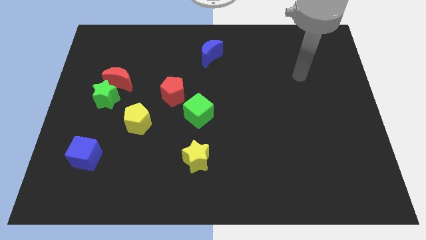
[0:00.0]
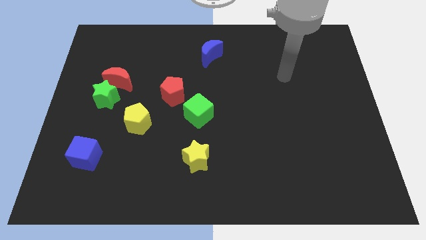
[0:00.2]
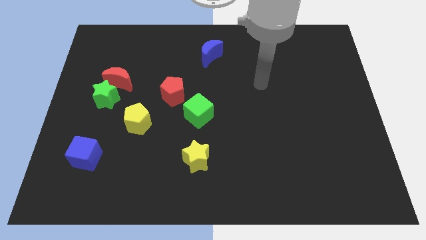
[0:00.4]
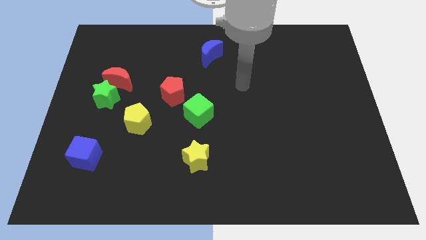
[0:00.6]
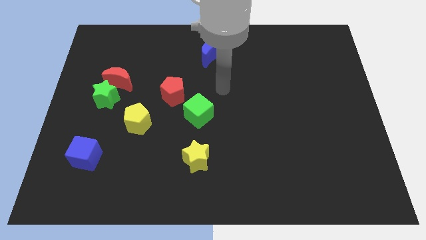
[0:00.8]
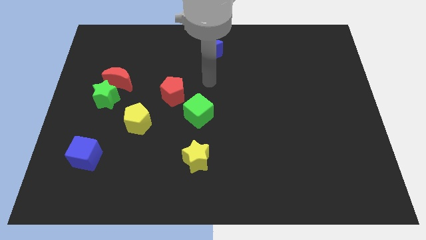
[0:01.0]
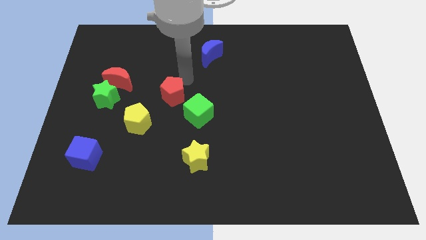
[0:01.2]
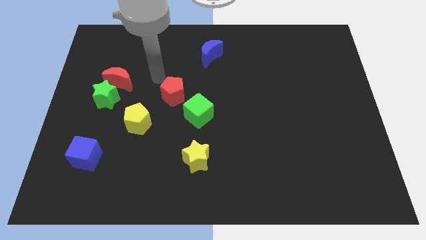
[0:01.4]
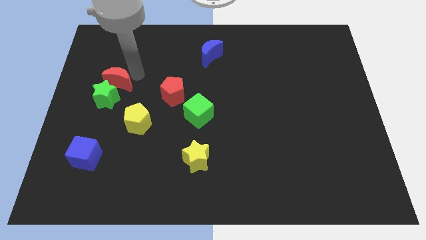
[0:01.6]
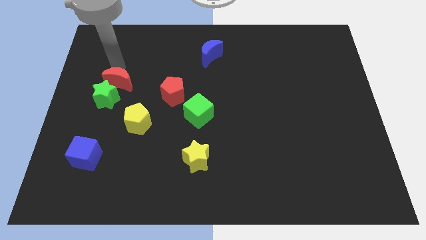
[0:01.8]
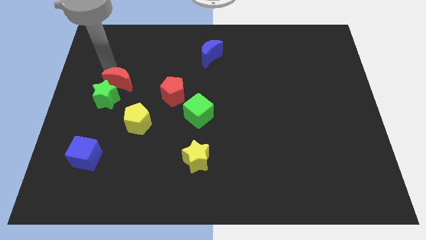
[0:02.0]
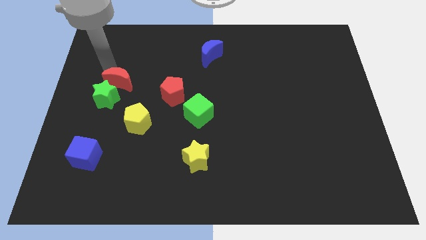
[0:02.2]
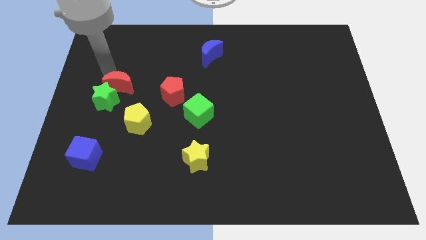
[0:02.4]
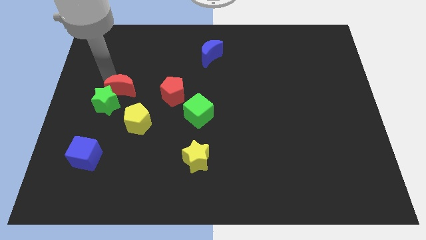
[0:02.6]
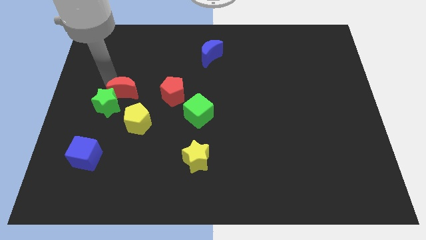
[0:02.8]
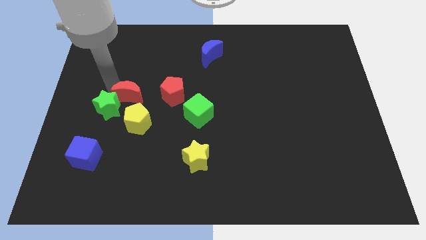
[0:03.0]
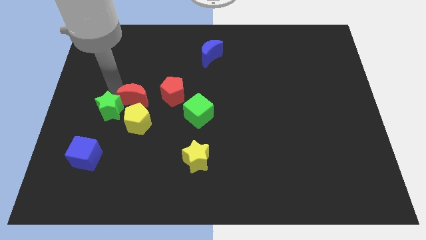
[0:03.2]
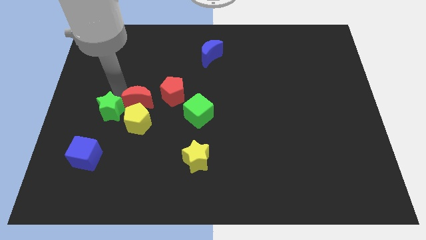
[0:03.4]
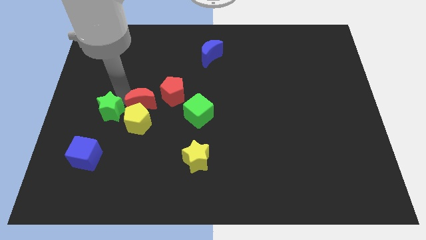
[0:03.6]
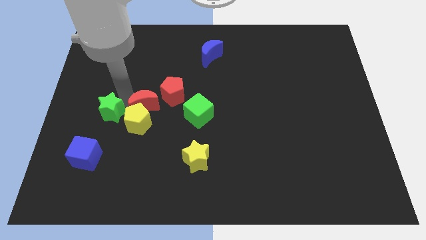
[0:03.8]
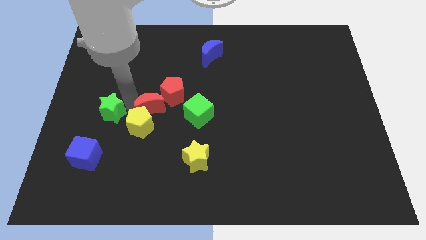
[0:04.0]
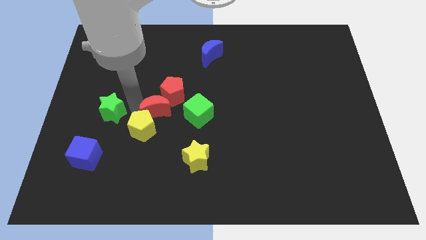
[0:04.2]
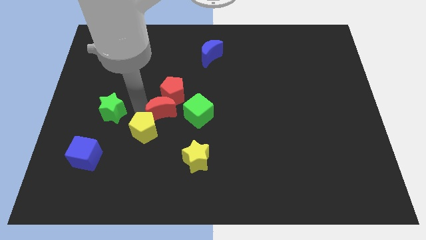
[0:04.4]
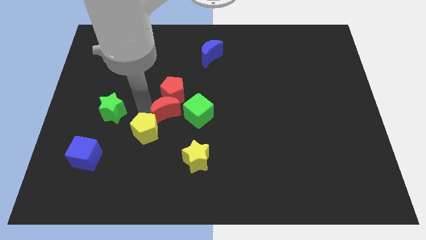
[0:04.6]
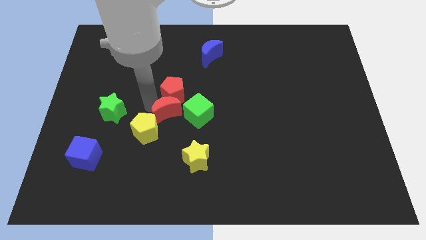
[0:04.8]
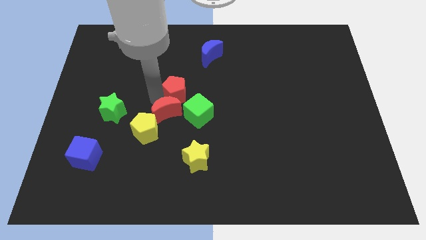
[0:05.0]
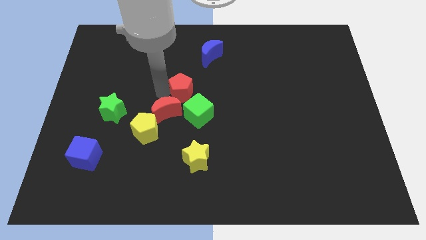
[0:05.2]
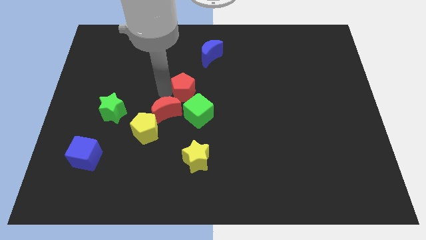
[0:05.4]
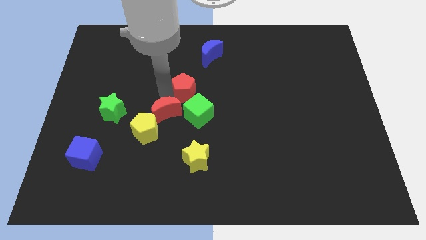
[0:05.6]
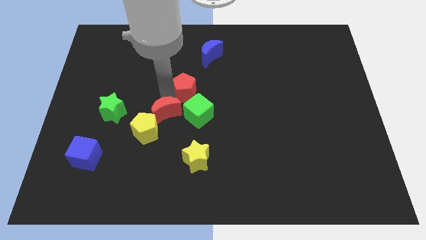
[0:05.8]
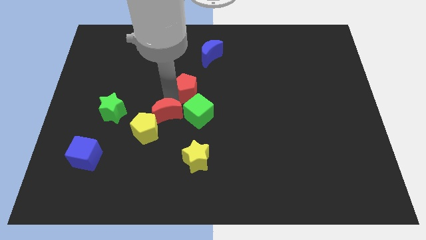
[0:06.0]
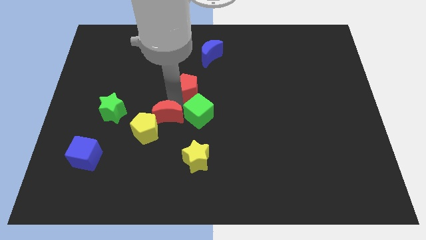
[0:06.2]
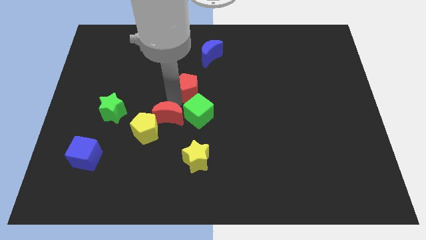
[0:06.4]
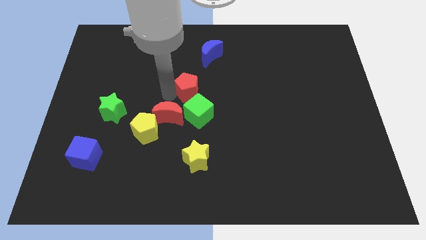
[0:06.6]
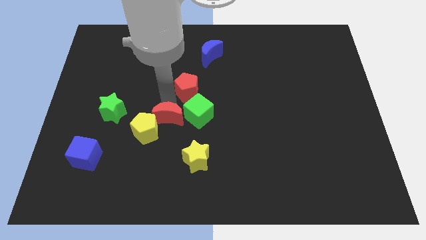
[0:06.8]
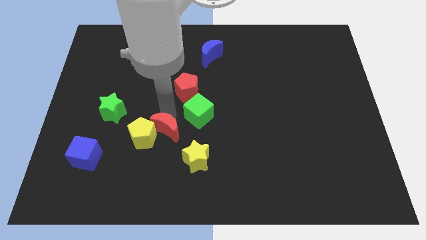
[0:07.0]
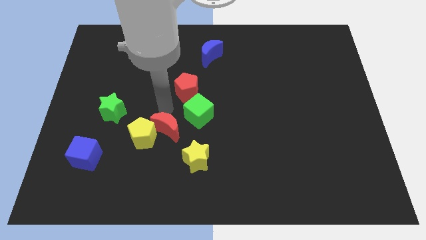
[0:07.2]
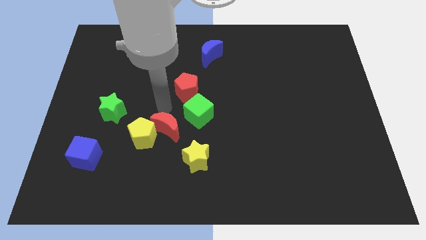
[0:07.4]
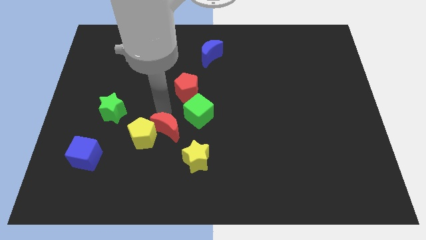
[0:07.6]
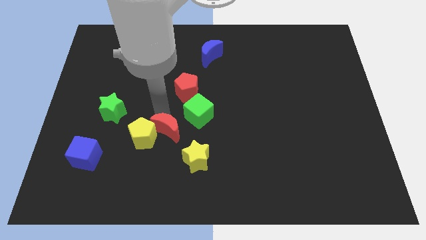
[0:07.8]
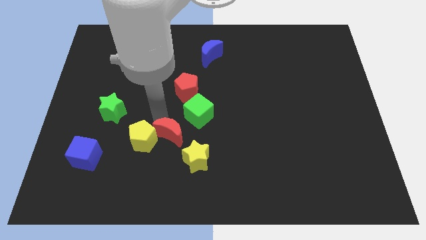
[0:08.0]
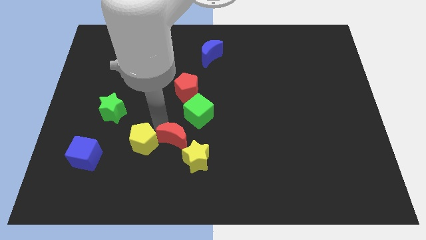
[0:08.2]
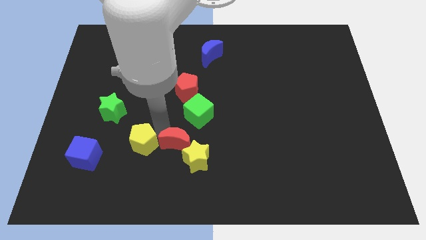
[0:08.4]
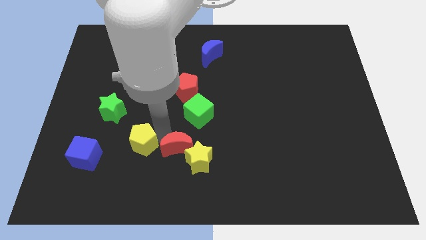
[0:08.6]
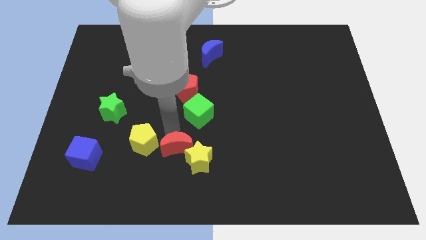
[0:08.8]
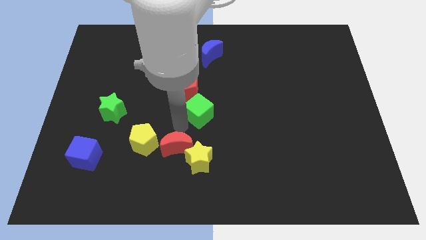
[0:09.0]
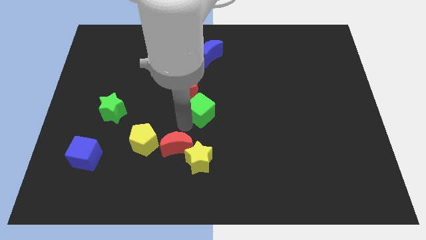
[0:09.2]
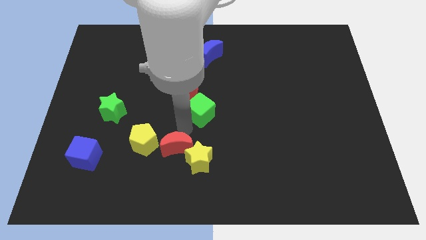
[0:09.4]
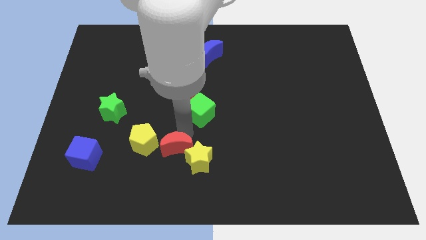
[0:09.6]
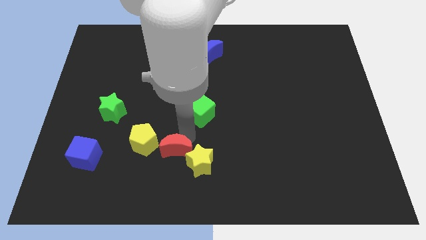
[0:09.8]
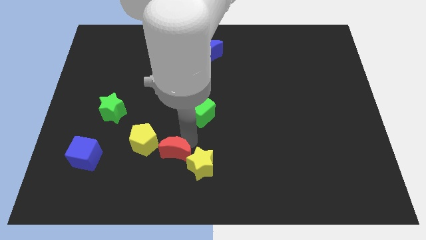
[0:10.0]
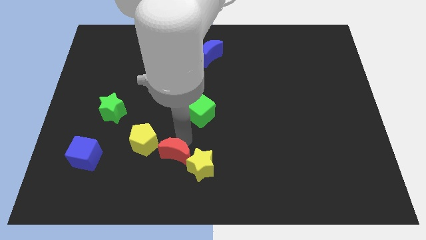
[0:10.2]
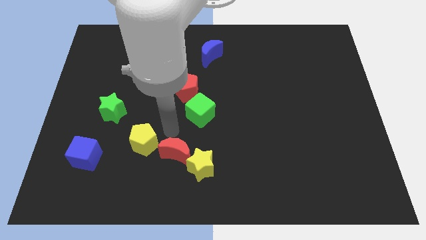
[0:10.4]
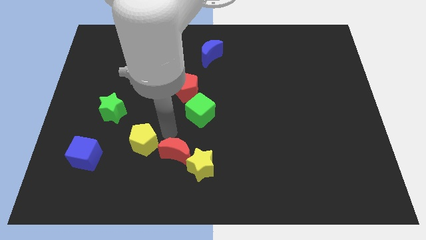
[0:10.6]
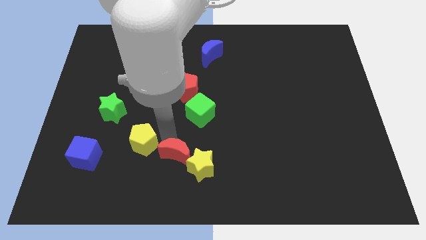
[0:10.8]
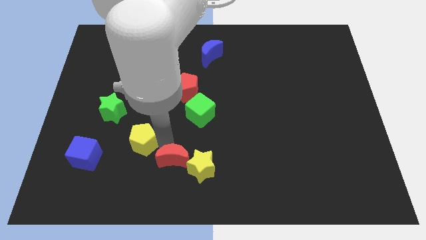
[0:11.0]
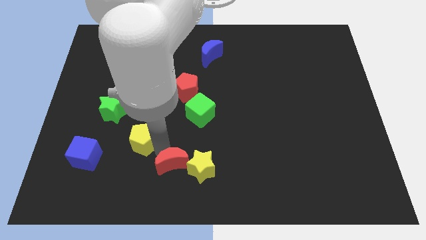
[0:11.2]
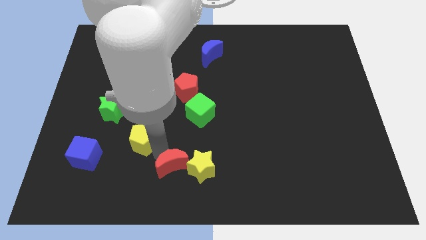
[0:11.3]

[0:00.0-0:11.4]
move the red moon to the bottom

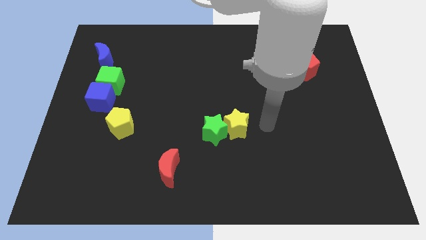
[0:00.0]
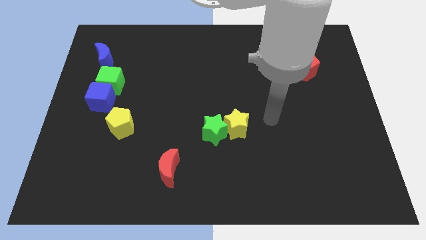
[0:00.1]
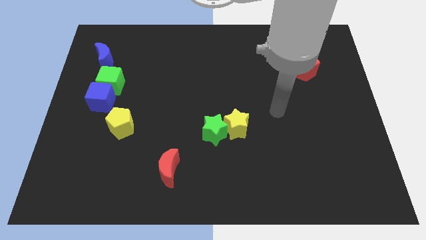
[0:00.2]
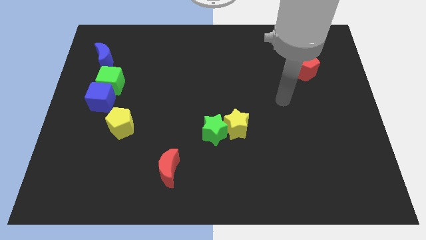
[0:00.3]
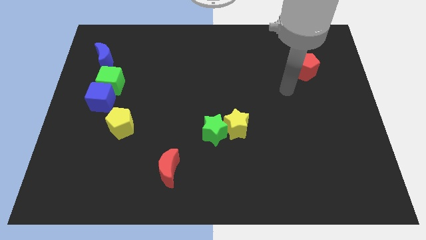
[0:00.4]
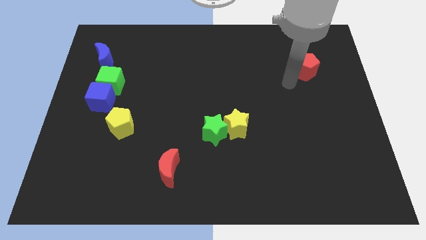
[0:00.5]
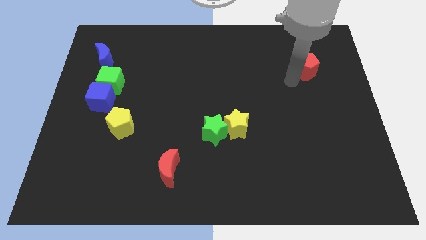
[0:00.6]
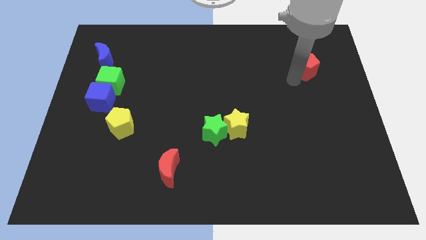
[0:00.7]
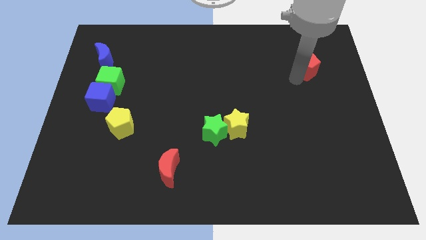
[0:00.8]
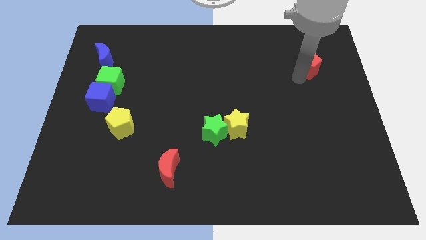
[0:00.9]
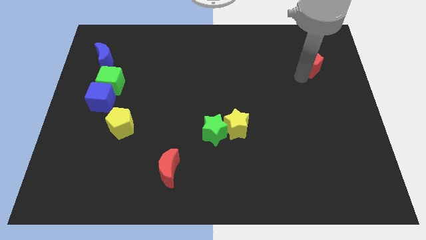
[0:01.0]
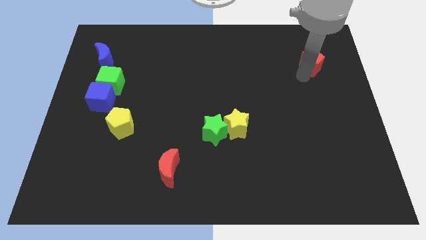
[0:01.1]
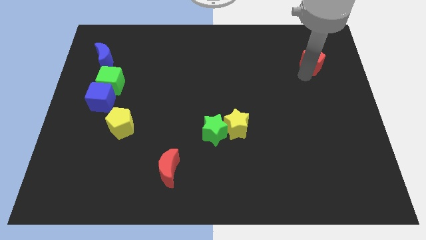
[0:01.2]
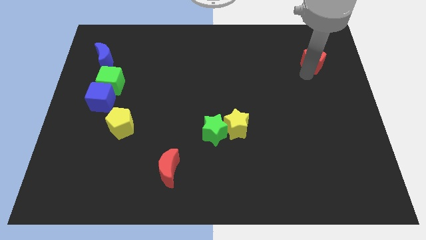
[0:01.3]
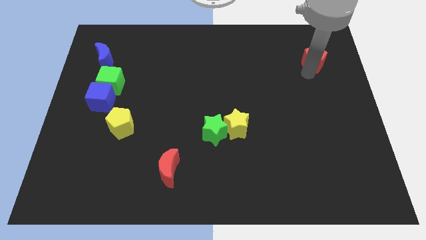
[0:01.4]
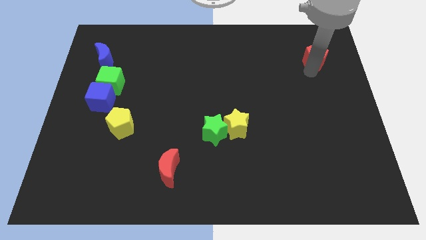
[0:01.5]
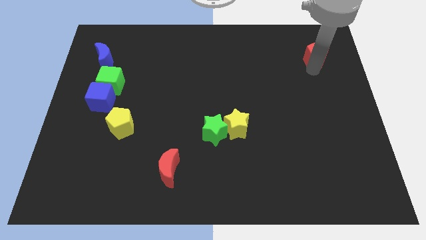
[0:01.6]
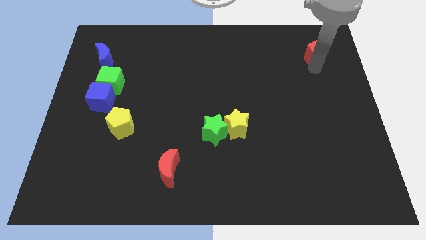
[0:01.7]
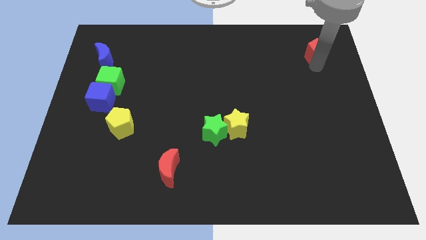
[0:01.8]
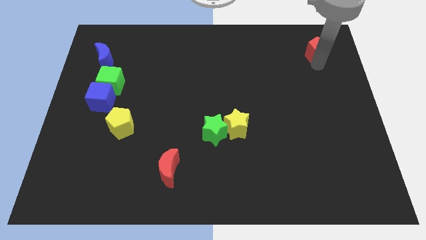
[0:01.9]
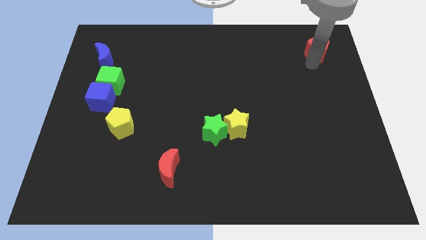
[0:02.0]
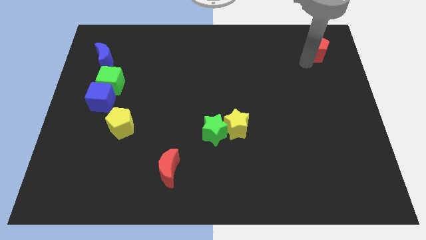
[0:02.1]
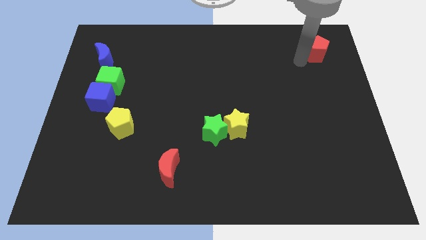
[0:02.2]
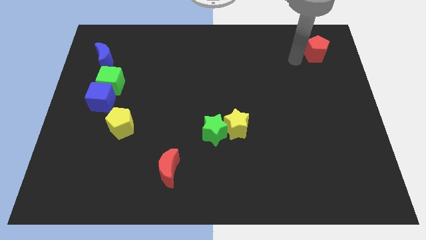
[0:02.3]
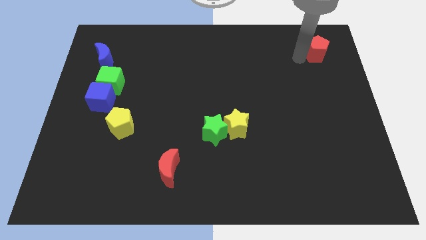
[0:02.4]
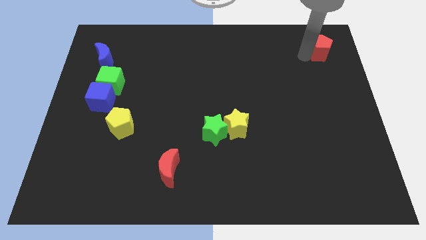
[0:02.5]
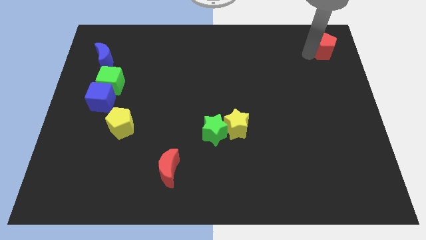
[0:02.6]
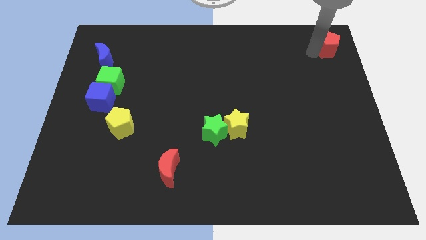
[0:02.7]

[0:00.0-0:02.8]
slide the red pentagon to the top right of the board
